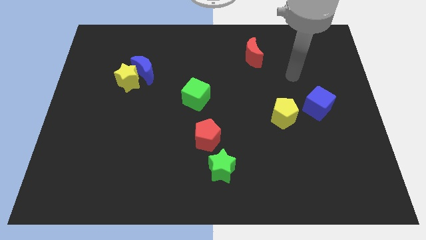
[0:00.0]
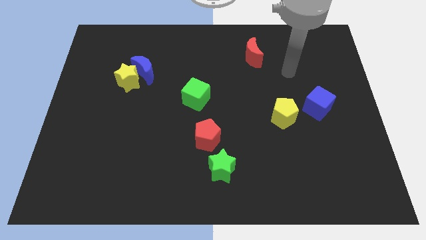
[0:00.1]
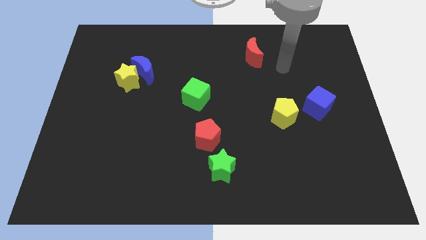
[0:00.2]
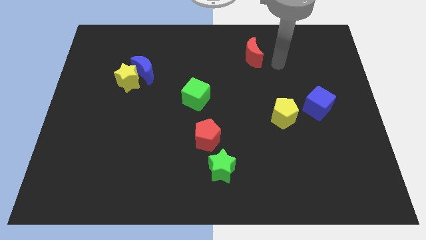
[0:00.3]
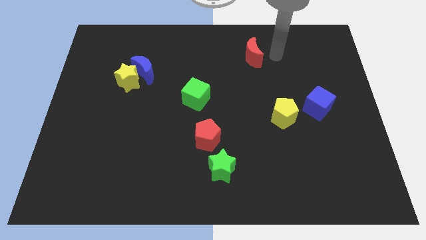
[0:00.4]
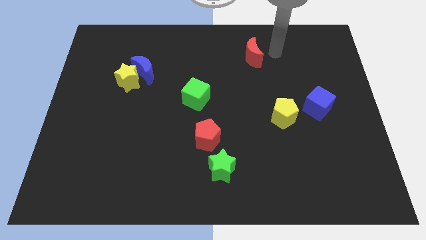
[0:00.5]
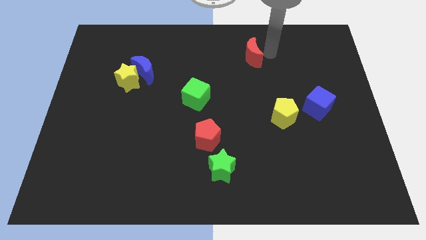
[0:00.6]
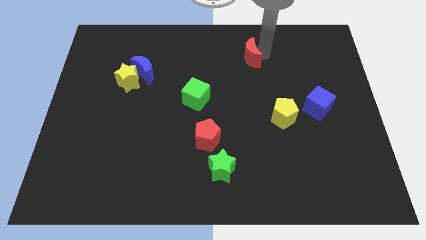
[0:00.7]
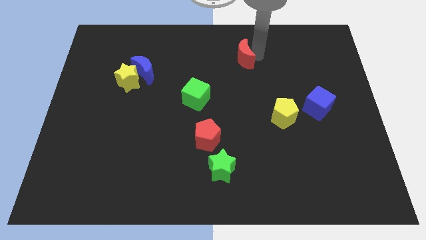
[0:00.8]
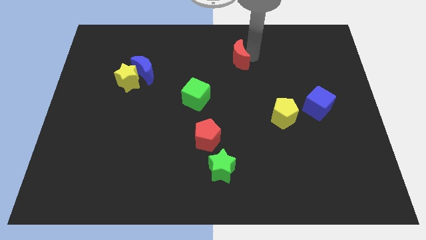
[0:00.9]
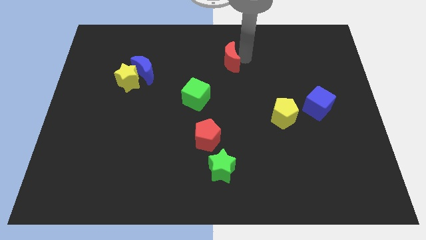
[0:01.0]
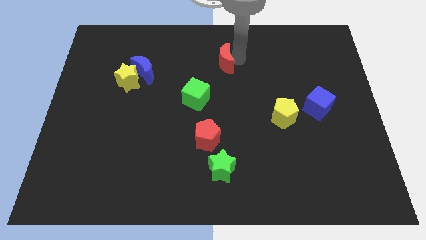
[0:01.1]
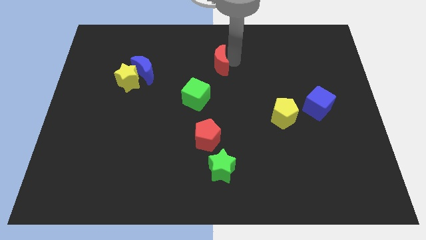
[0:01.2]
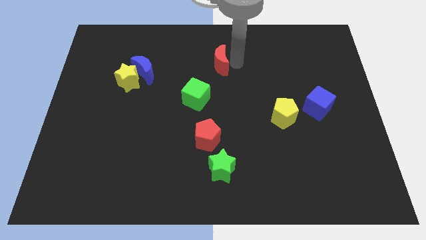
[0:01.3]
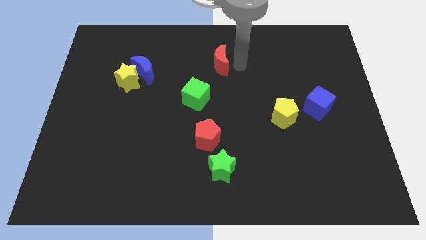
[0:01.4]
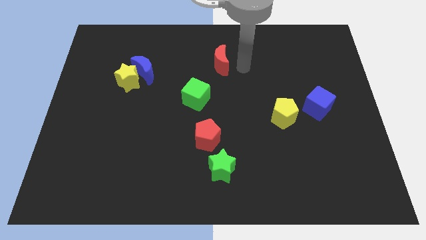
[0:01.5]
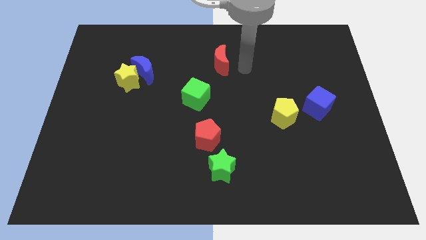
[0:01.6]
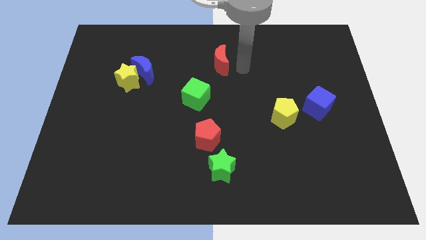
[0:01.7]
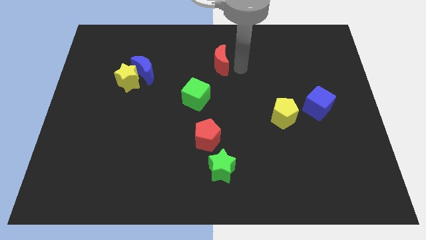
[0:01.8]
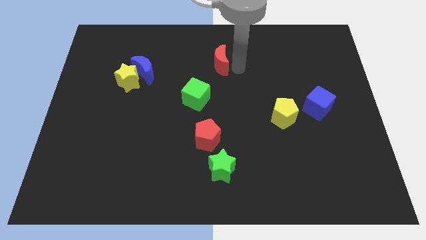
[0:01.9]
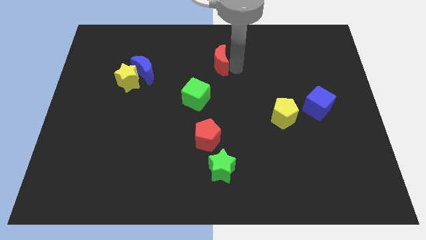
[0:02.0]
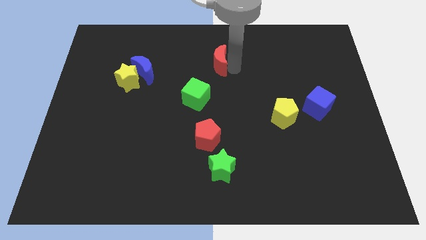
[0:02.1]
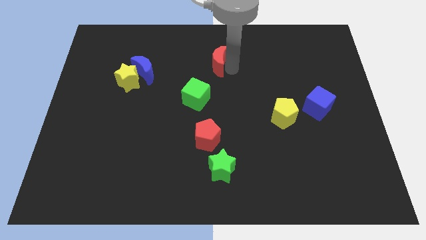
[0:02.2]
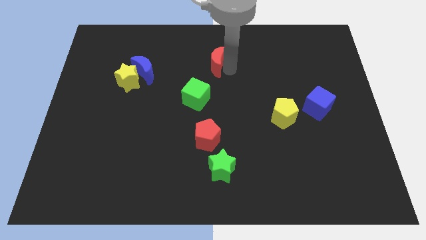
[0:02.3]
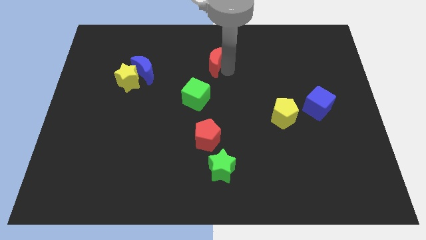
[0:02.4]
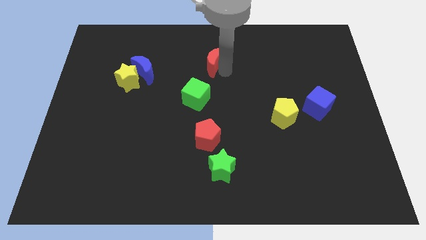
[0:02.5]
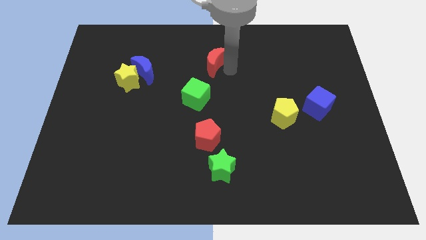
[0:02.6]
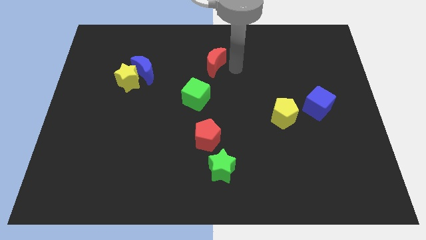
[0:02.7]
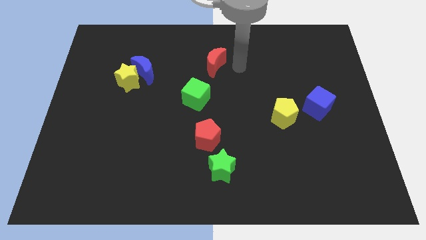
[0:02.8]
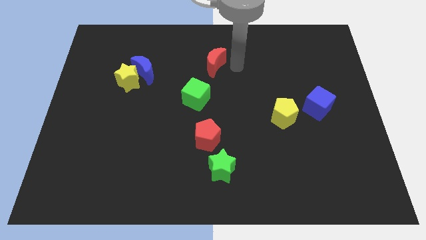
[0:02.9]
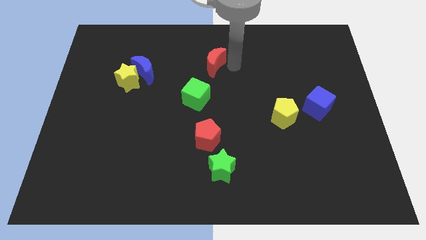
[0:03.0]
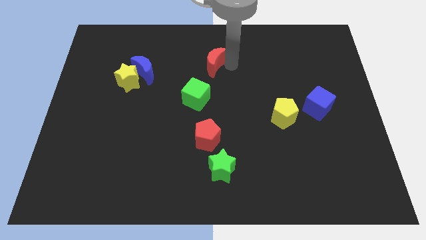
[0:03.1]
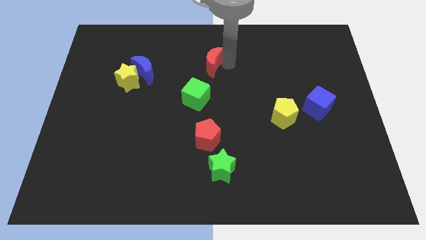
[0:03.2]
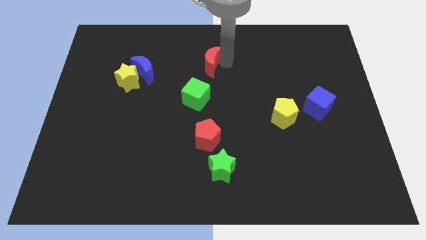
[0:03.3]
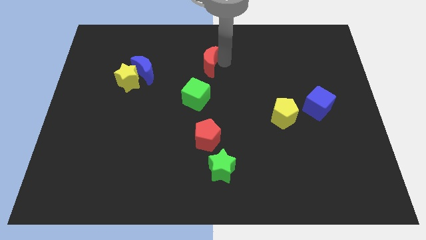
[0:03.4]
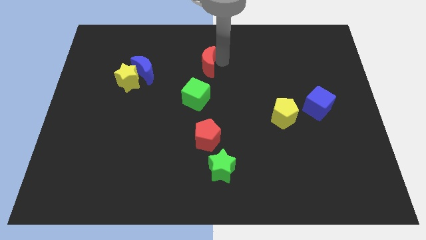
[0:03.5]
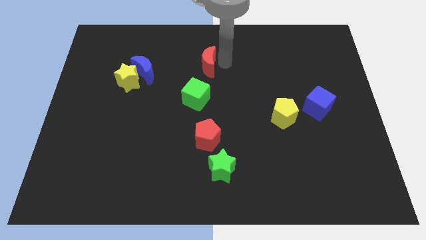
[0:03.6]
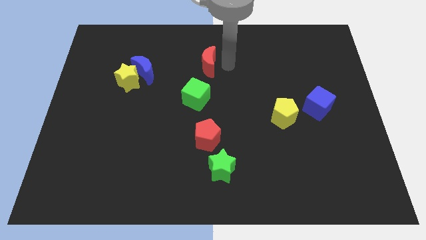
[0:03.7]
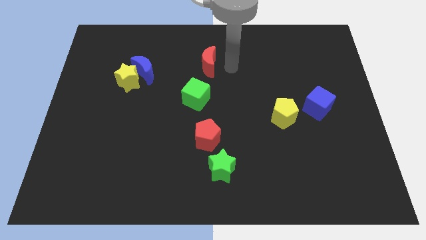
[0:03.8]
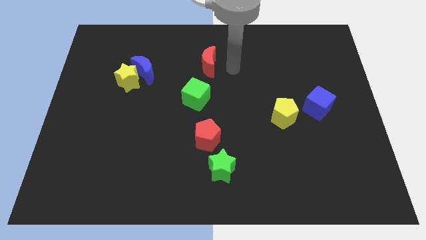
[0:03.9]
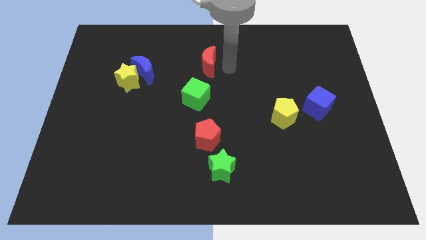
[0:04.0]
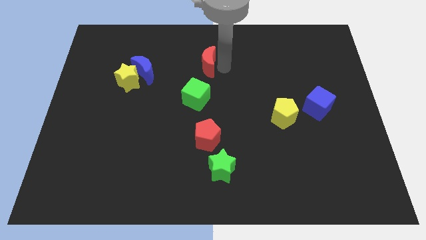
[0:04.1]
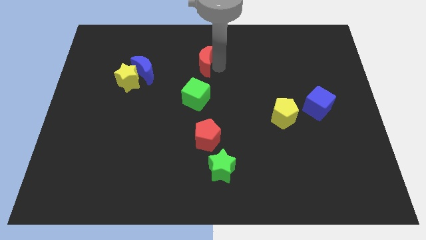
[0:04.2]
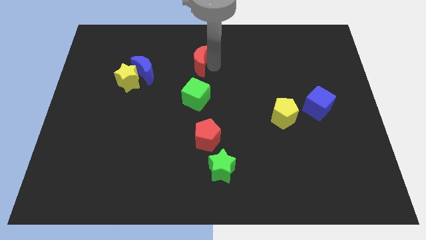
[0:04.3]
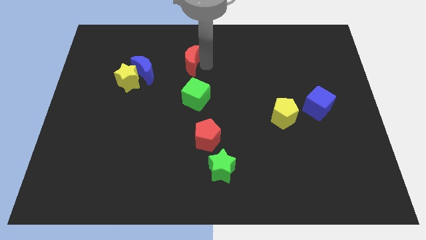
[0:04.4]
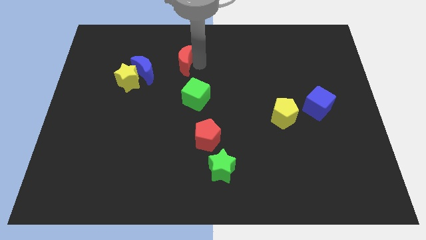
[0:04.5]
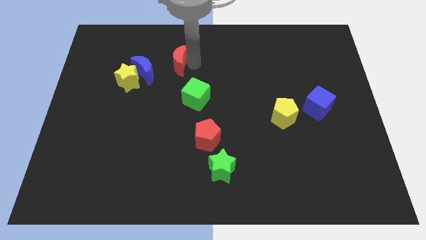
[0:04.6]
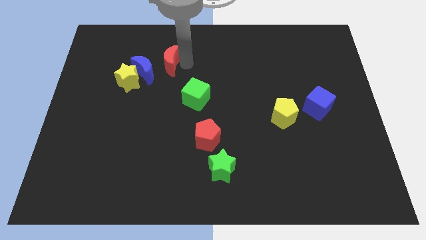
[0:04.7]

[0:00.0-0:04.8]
move the red moon to the left

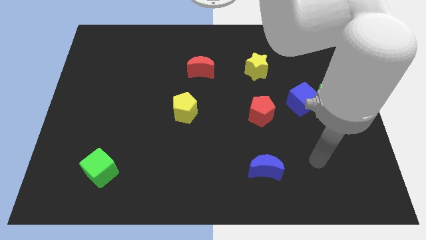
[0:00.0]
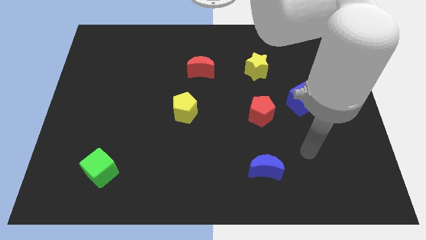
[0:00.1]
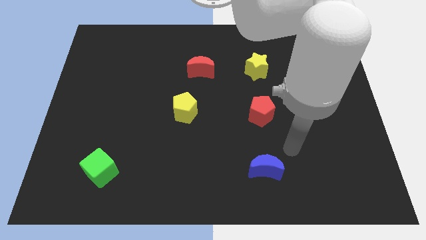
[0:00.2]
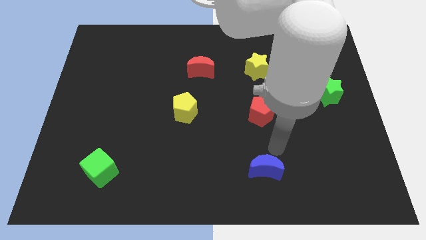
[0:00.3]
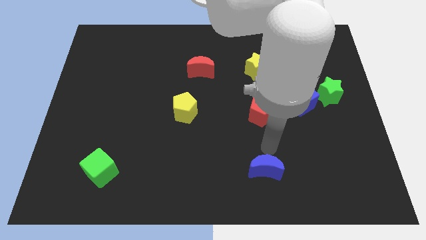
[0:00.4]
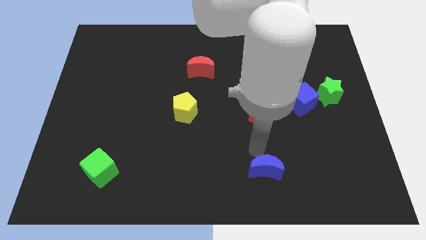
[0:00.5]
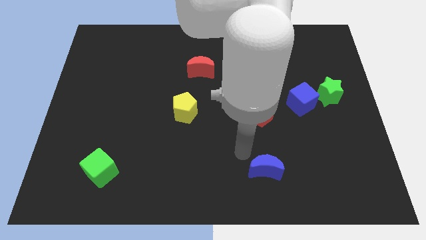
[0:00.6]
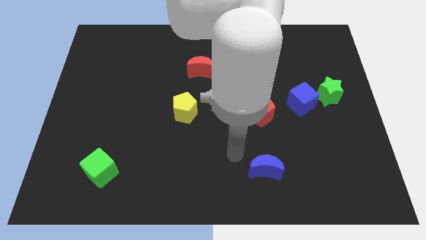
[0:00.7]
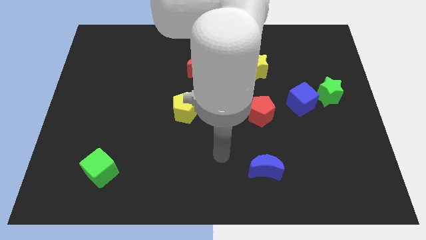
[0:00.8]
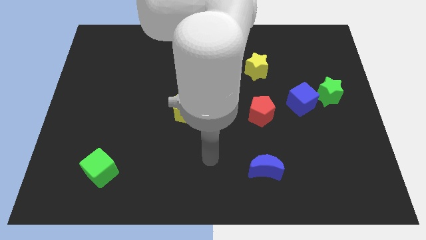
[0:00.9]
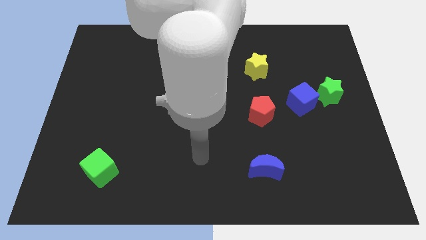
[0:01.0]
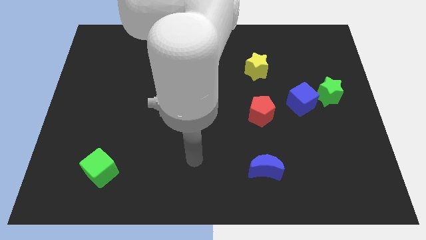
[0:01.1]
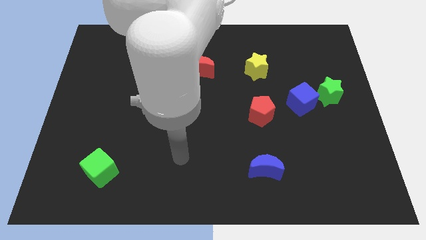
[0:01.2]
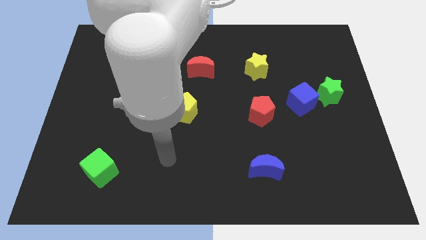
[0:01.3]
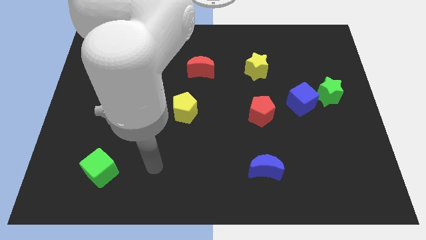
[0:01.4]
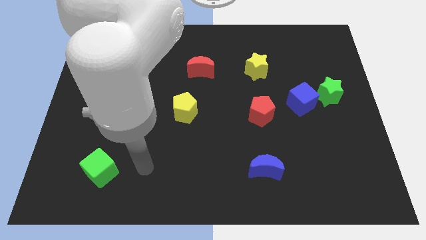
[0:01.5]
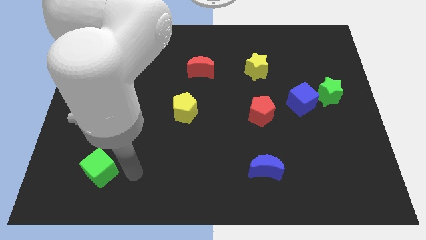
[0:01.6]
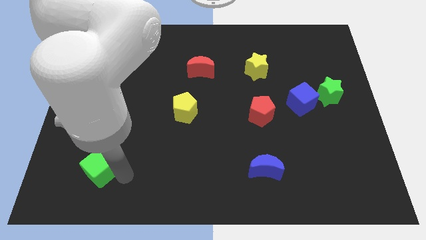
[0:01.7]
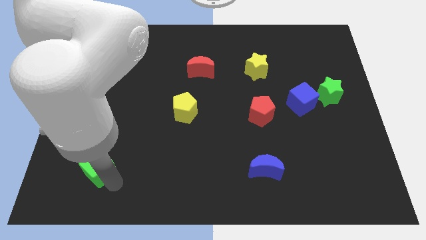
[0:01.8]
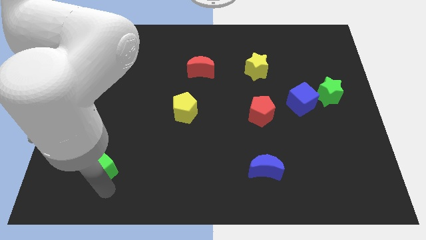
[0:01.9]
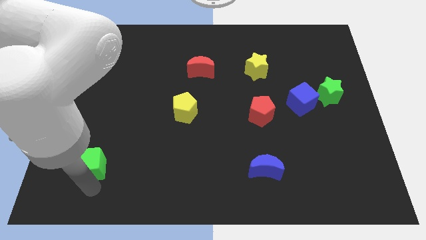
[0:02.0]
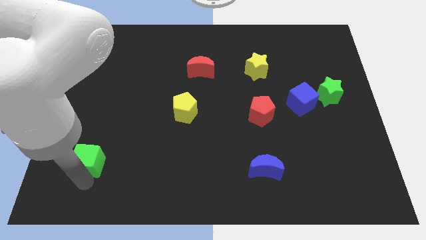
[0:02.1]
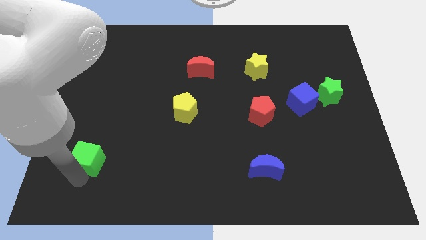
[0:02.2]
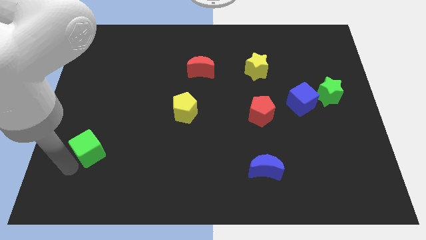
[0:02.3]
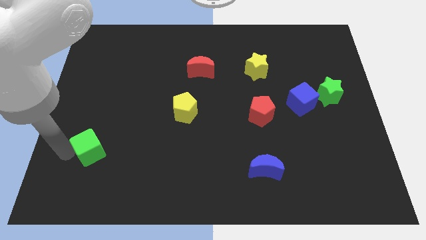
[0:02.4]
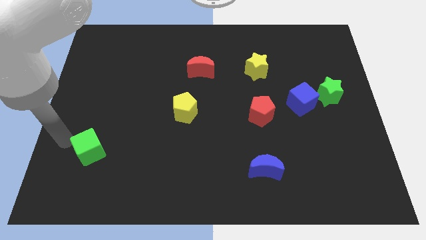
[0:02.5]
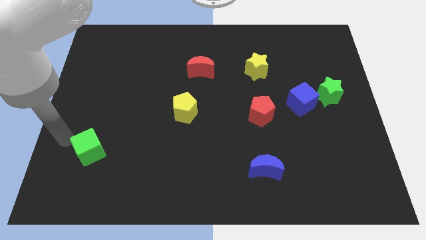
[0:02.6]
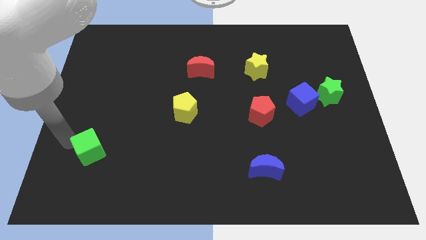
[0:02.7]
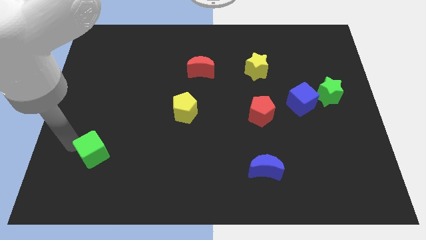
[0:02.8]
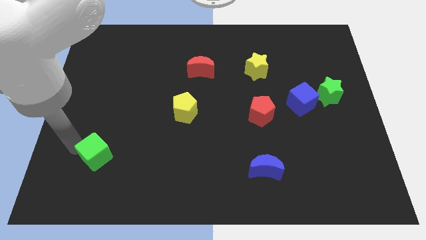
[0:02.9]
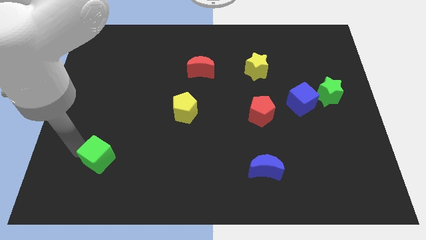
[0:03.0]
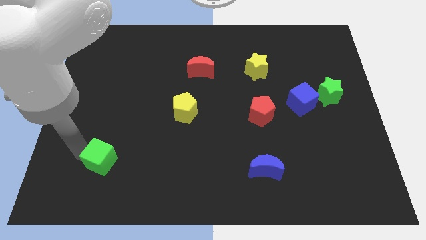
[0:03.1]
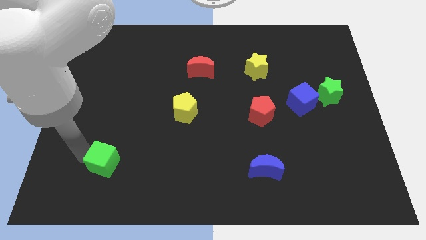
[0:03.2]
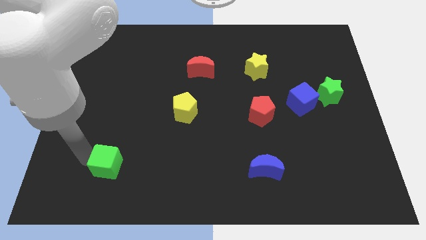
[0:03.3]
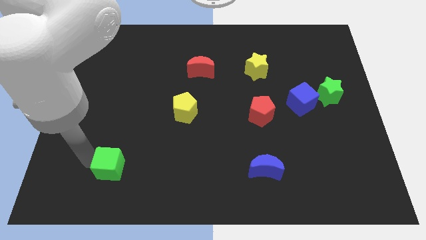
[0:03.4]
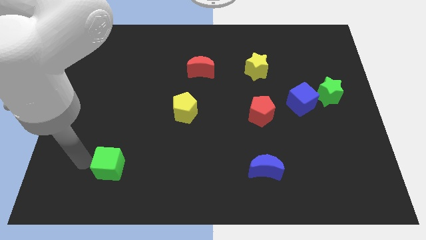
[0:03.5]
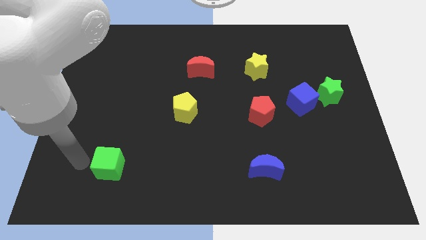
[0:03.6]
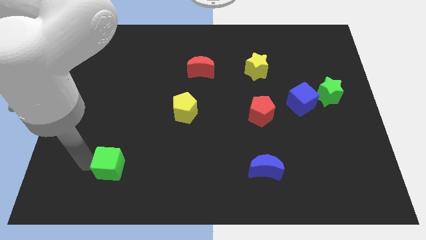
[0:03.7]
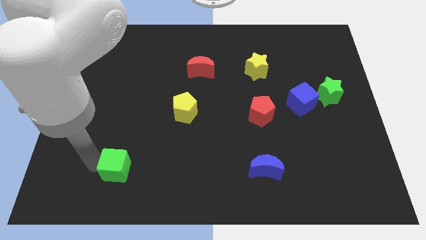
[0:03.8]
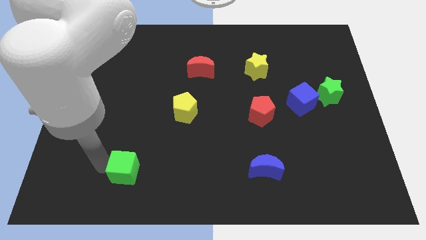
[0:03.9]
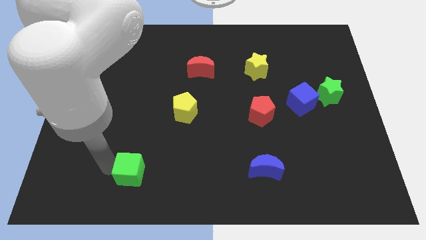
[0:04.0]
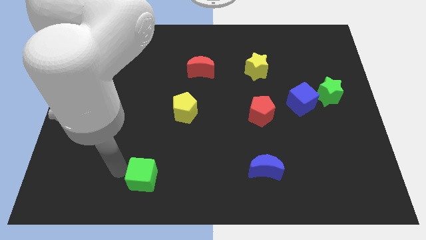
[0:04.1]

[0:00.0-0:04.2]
slide the green cube to the right a little bit
